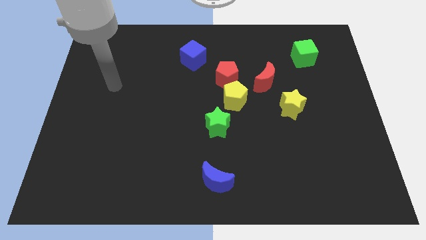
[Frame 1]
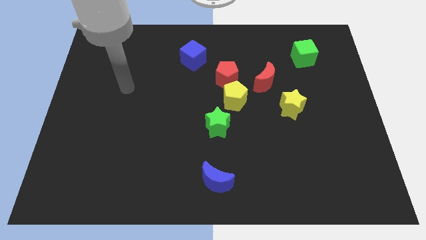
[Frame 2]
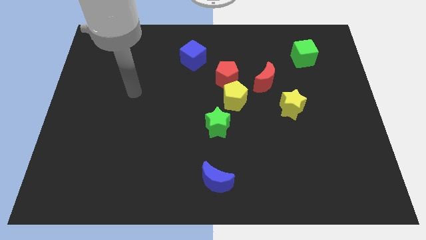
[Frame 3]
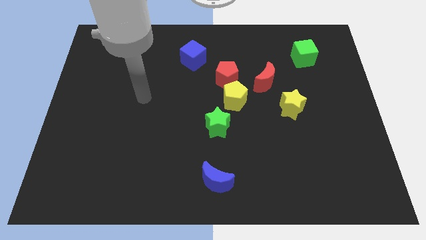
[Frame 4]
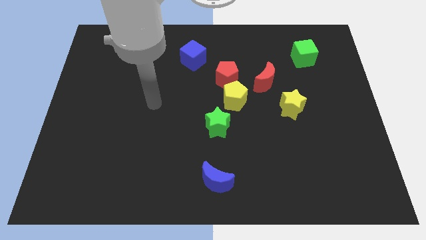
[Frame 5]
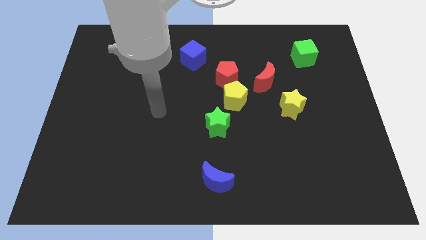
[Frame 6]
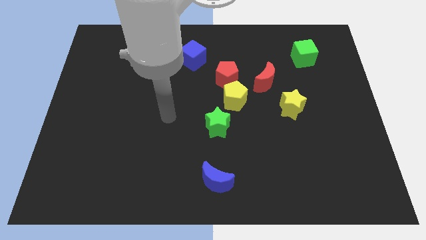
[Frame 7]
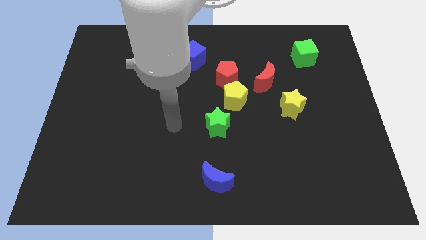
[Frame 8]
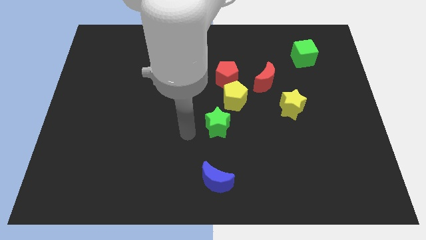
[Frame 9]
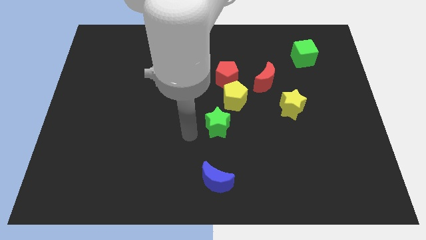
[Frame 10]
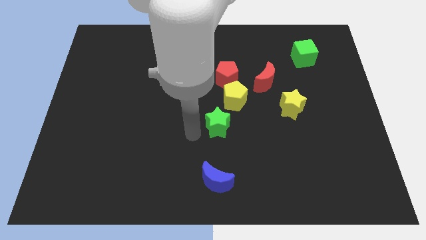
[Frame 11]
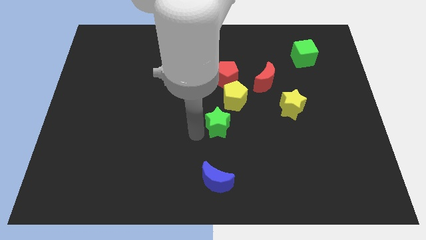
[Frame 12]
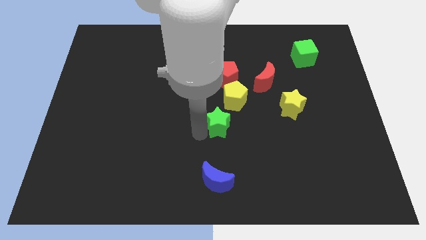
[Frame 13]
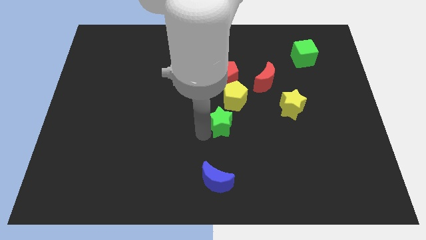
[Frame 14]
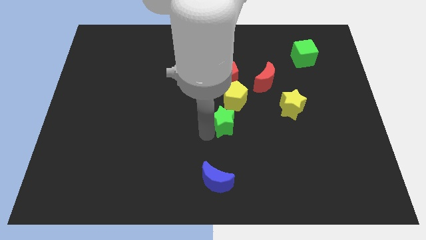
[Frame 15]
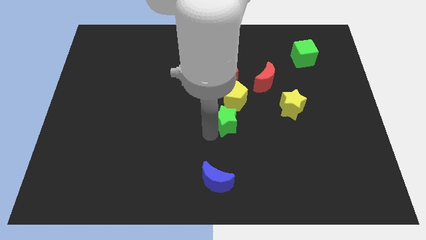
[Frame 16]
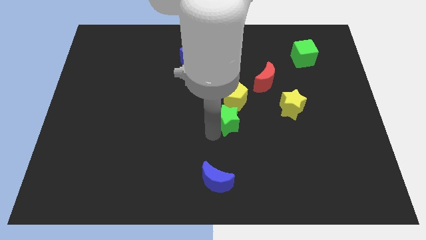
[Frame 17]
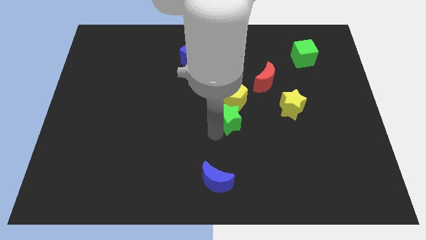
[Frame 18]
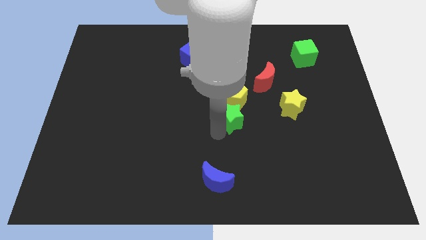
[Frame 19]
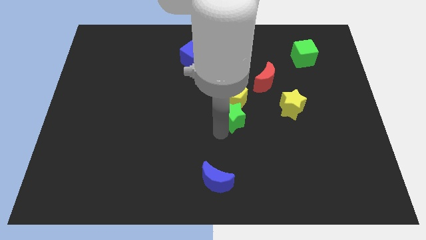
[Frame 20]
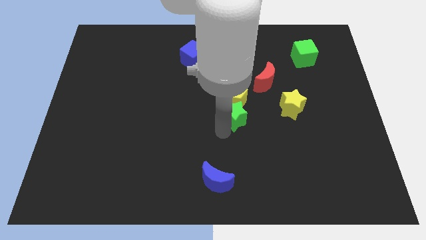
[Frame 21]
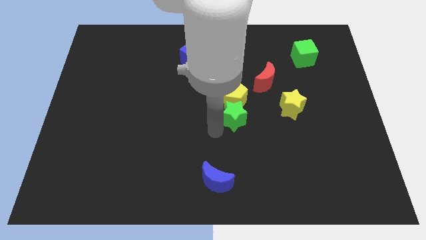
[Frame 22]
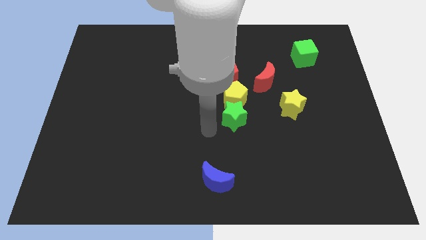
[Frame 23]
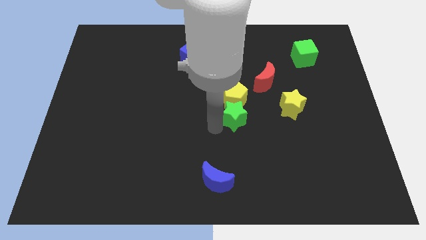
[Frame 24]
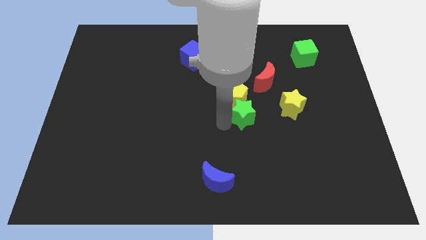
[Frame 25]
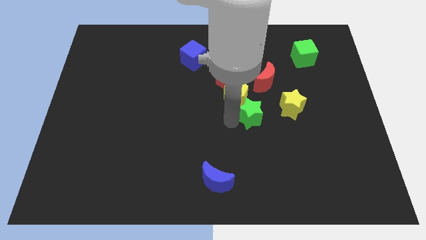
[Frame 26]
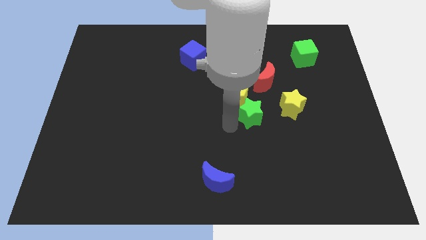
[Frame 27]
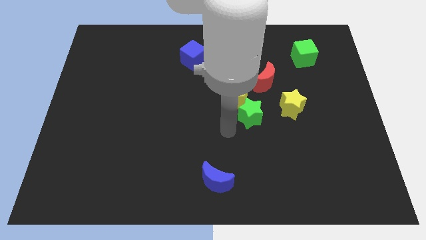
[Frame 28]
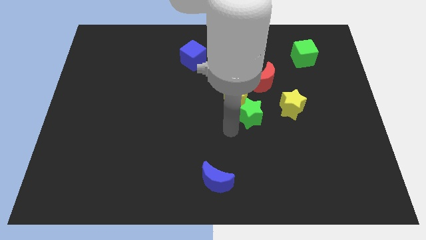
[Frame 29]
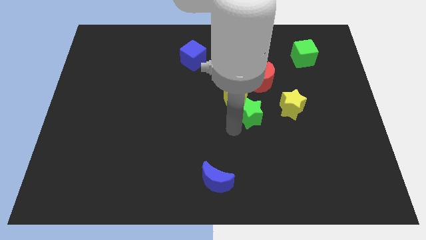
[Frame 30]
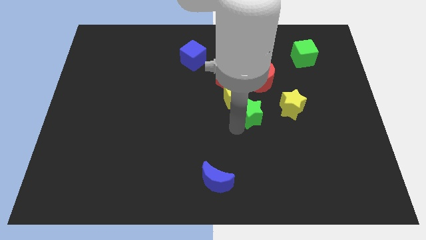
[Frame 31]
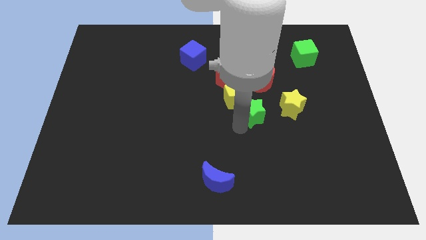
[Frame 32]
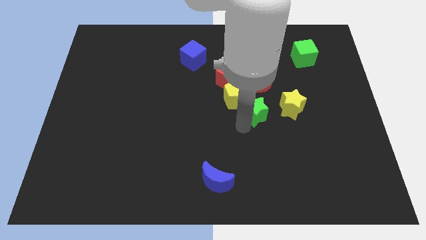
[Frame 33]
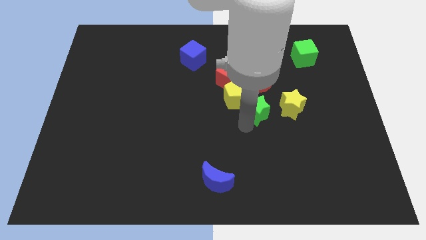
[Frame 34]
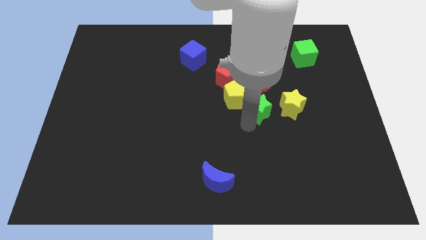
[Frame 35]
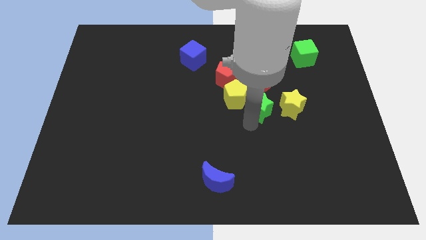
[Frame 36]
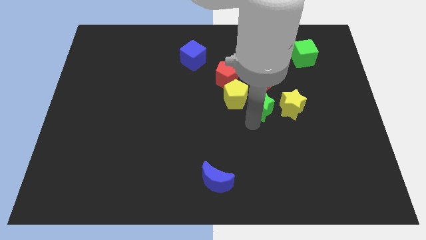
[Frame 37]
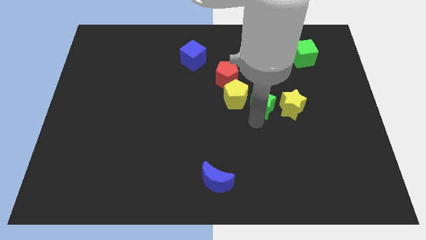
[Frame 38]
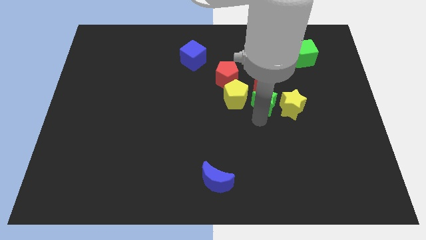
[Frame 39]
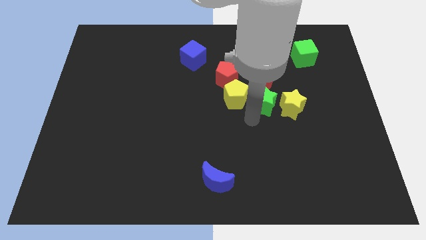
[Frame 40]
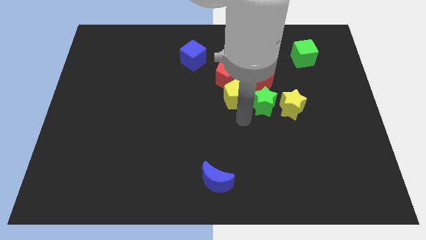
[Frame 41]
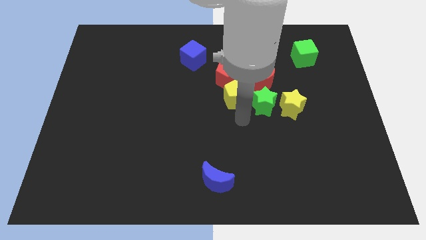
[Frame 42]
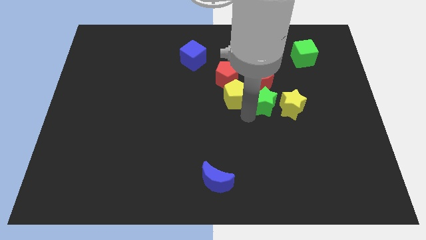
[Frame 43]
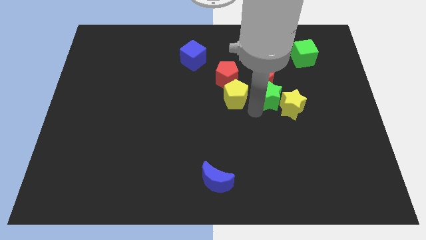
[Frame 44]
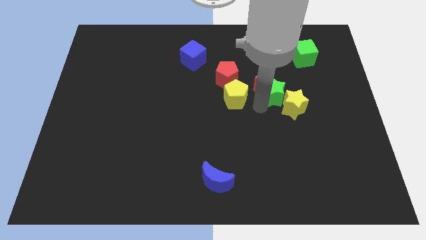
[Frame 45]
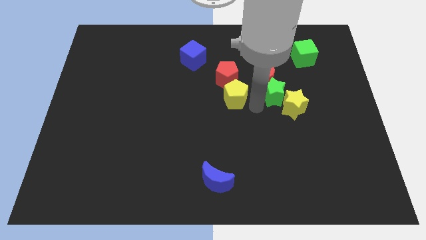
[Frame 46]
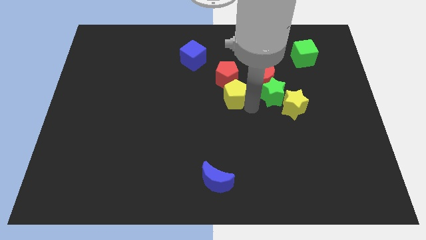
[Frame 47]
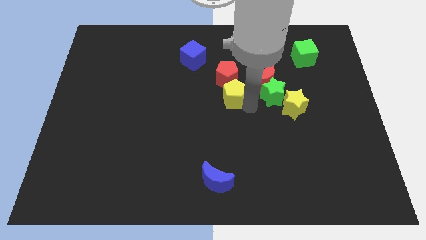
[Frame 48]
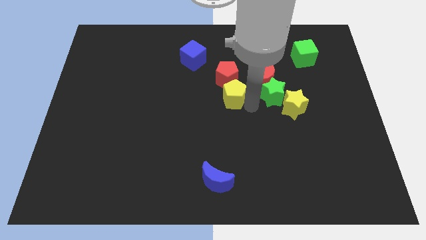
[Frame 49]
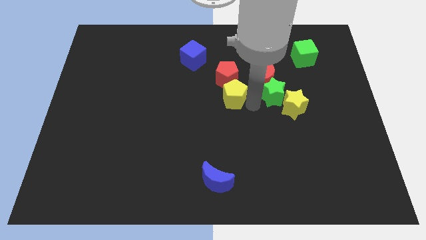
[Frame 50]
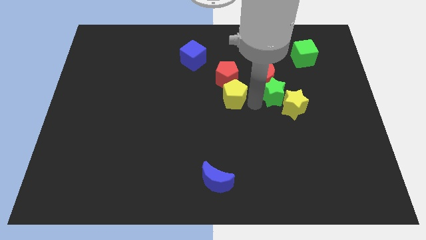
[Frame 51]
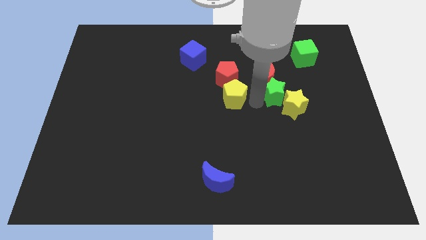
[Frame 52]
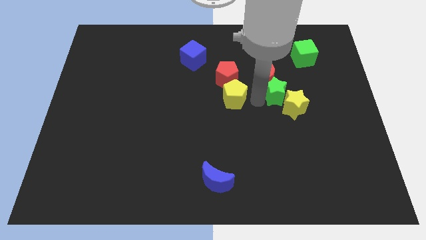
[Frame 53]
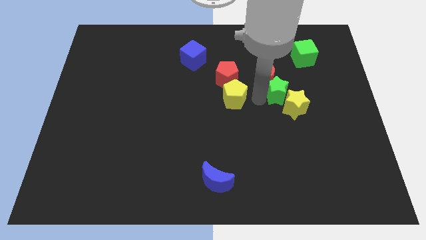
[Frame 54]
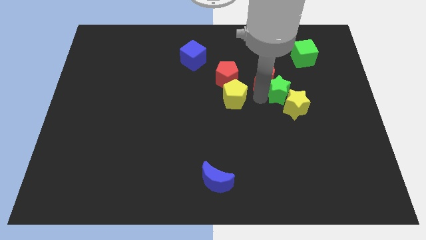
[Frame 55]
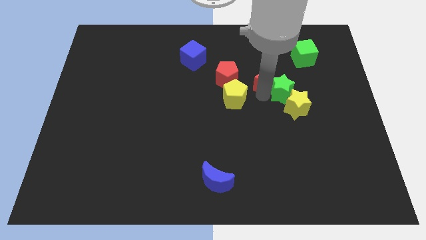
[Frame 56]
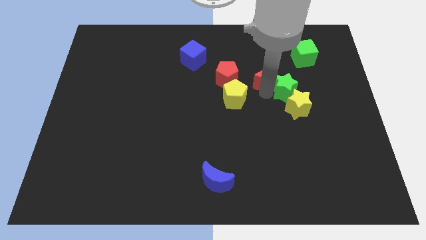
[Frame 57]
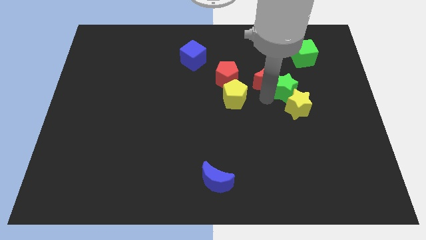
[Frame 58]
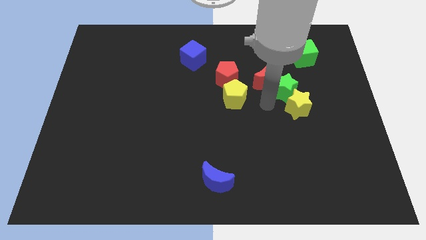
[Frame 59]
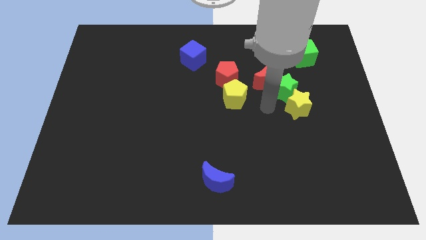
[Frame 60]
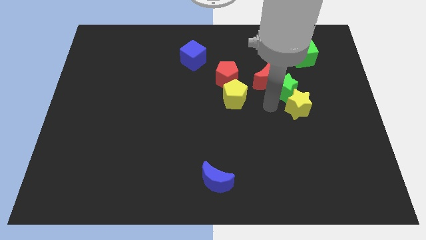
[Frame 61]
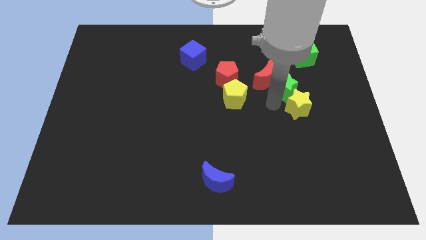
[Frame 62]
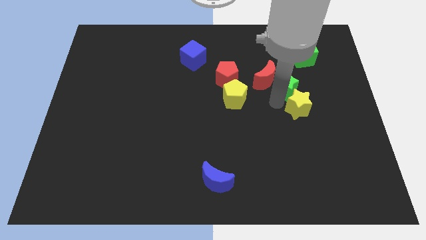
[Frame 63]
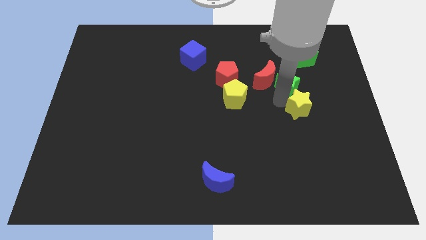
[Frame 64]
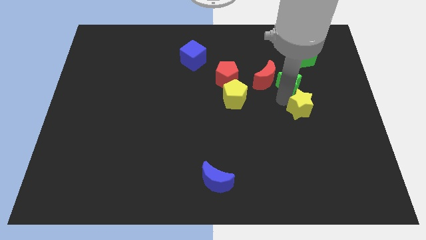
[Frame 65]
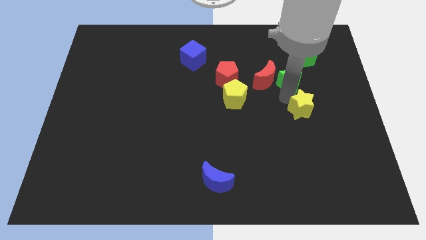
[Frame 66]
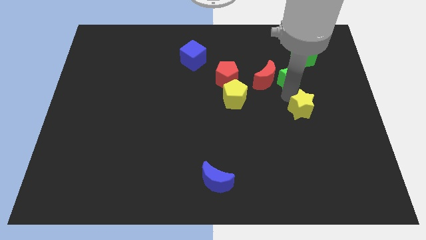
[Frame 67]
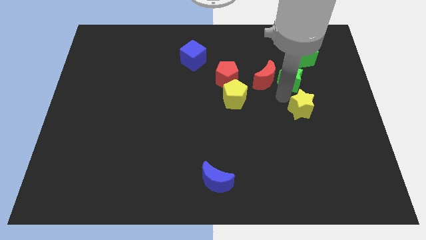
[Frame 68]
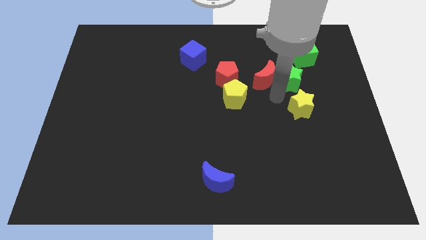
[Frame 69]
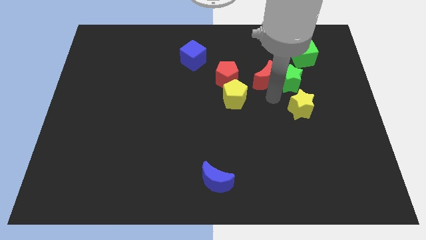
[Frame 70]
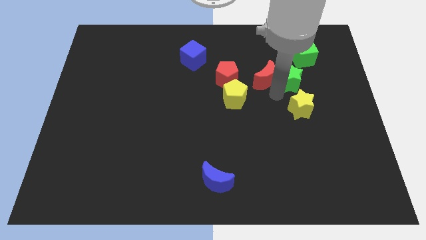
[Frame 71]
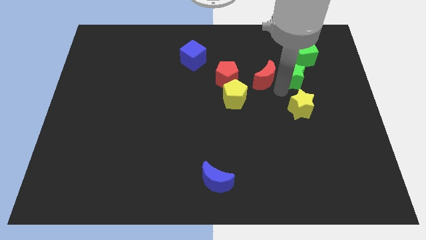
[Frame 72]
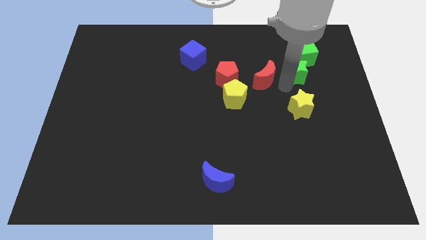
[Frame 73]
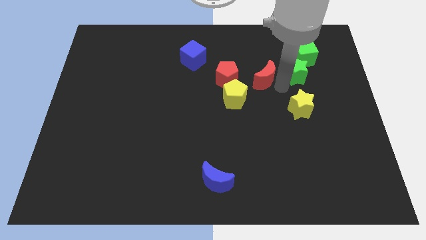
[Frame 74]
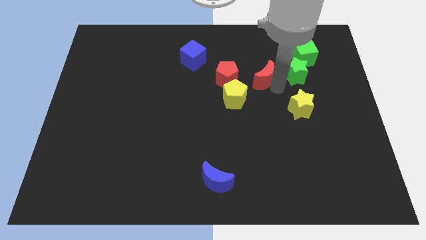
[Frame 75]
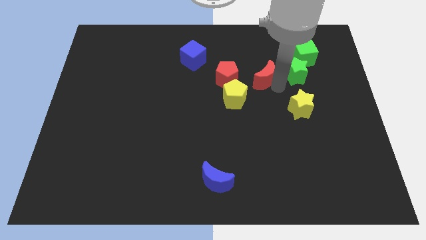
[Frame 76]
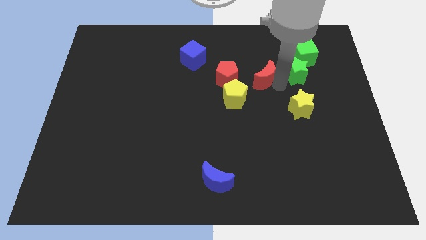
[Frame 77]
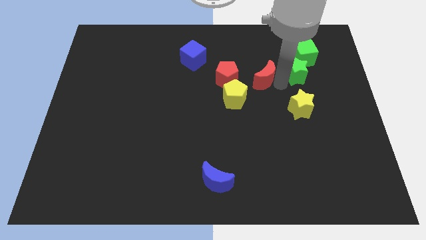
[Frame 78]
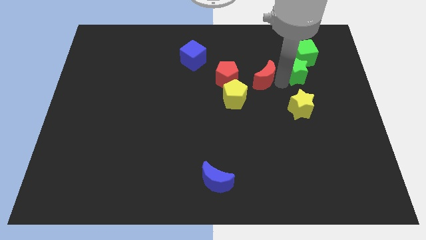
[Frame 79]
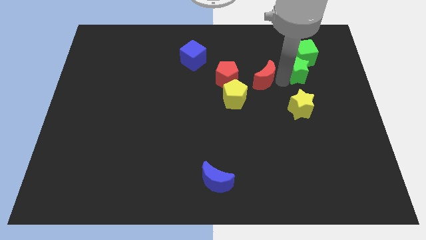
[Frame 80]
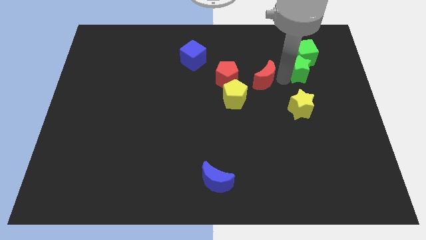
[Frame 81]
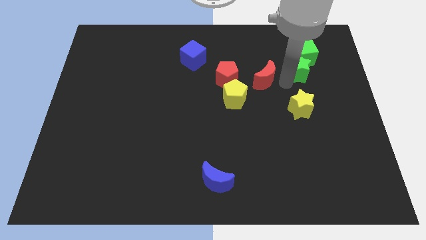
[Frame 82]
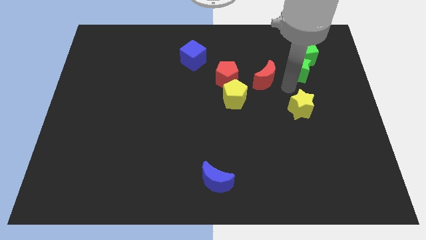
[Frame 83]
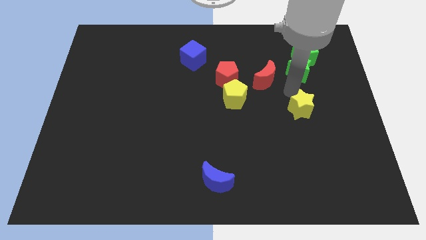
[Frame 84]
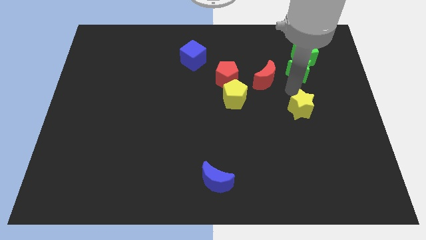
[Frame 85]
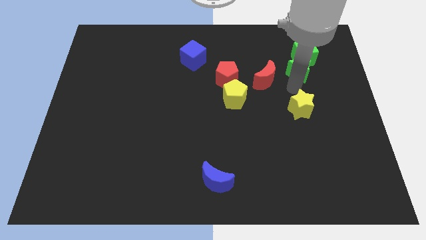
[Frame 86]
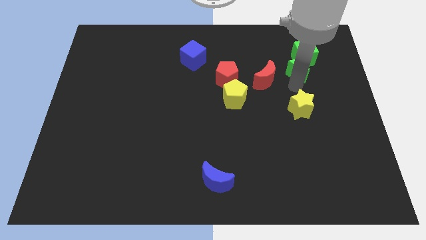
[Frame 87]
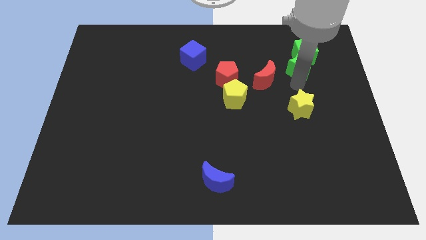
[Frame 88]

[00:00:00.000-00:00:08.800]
put the green star towards the green cube
